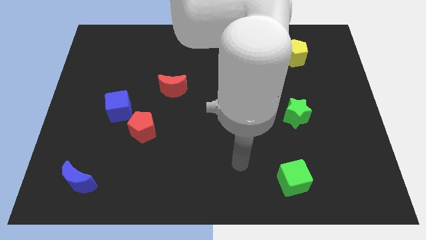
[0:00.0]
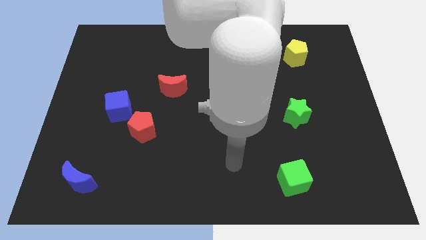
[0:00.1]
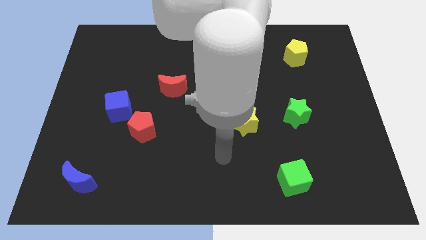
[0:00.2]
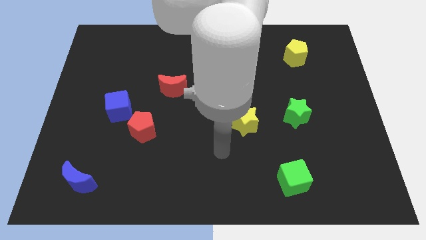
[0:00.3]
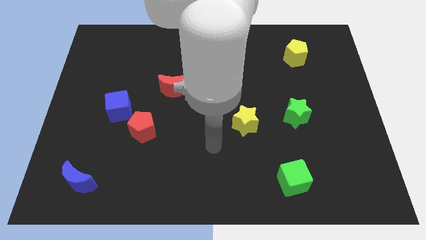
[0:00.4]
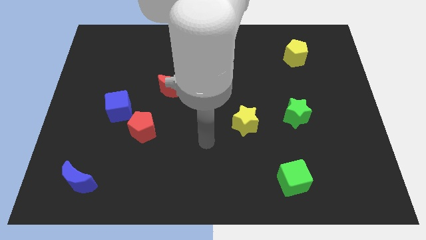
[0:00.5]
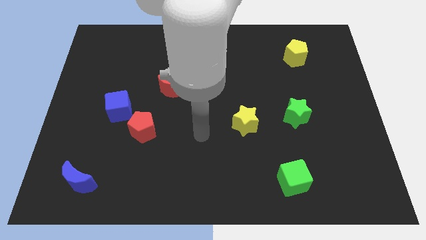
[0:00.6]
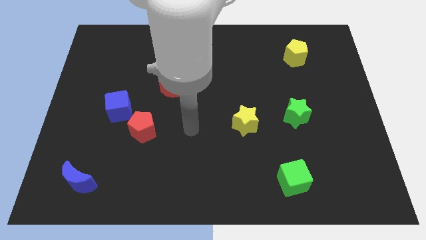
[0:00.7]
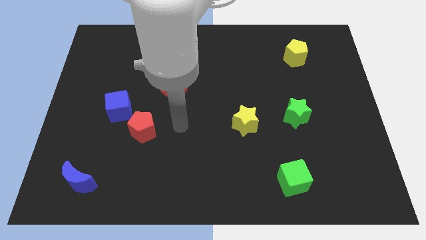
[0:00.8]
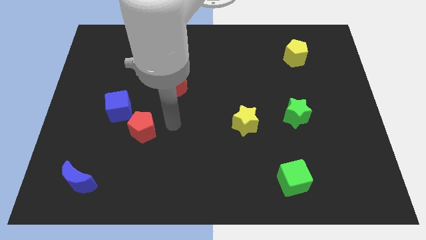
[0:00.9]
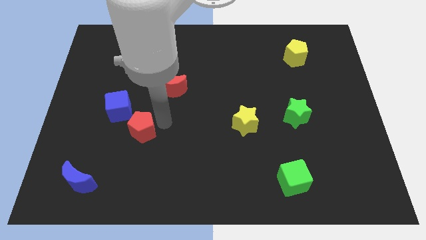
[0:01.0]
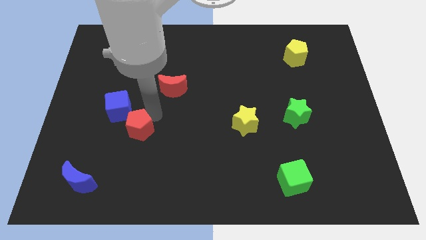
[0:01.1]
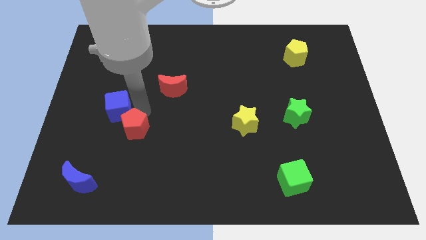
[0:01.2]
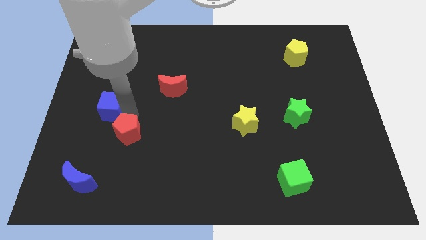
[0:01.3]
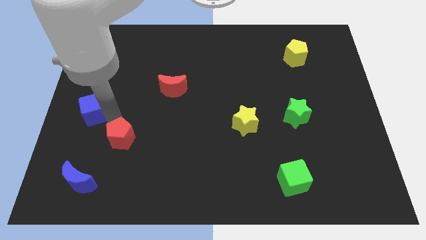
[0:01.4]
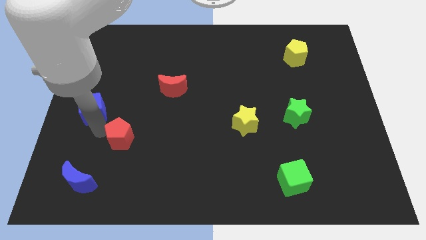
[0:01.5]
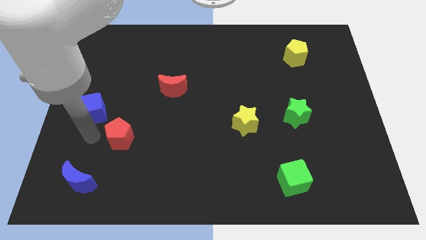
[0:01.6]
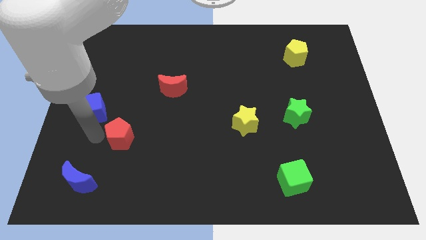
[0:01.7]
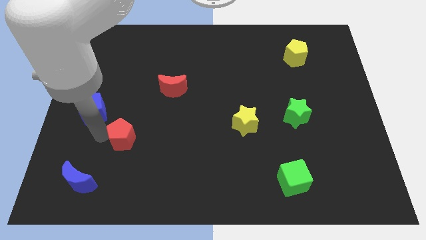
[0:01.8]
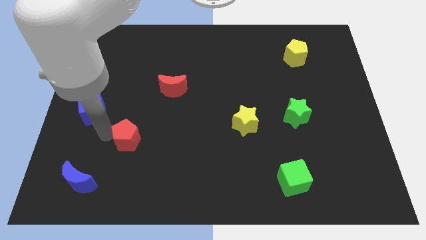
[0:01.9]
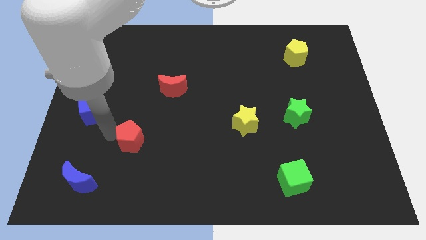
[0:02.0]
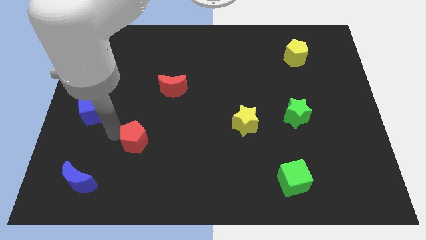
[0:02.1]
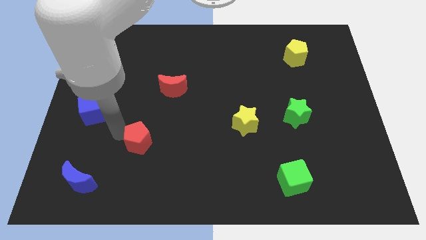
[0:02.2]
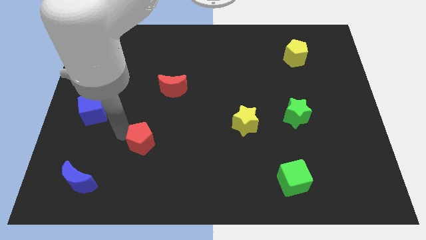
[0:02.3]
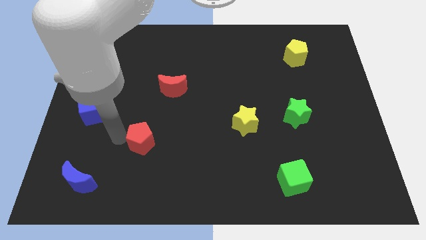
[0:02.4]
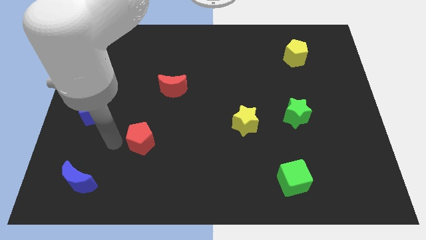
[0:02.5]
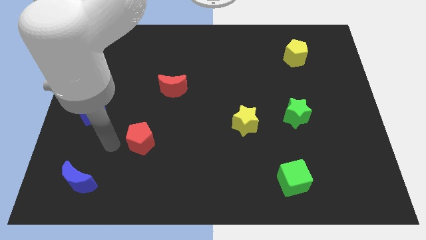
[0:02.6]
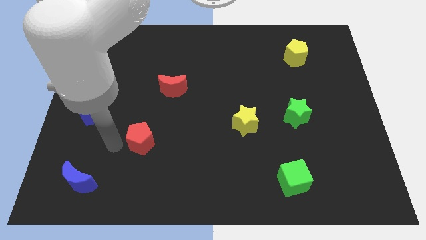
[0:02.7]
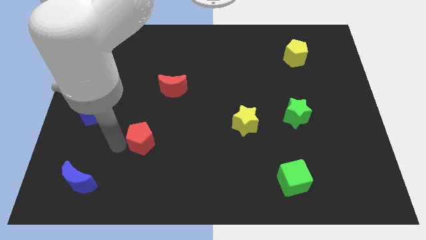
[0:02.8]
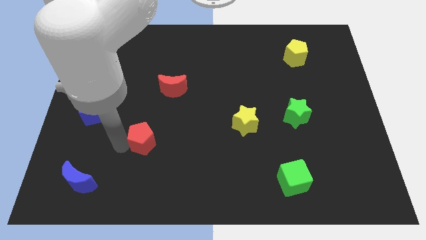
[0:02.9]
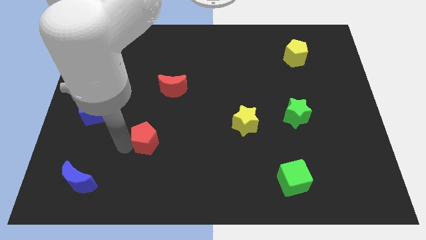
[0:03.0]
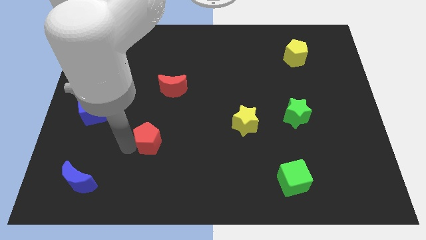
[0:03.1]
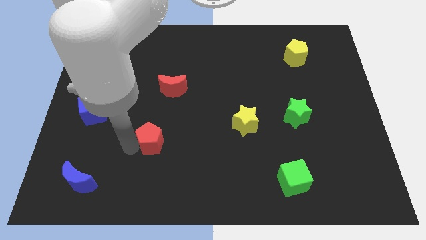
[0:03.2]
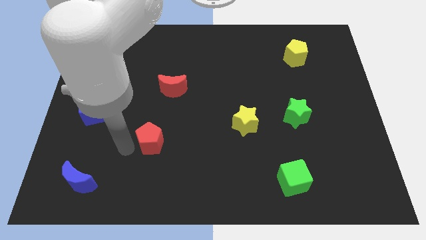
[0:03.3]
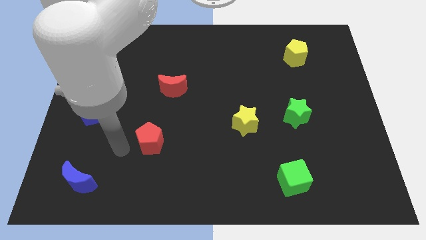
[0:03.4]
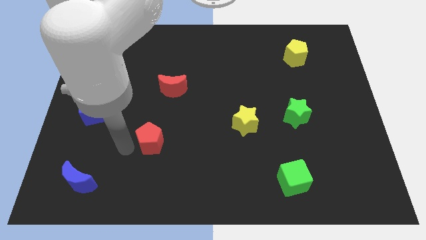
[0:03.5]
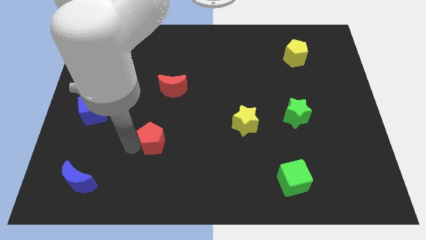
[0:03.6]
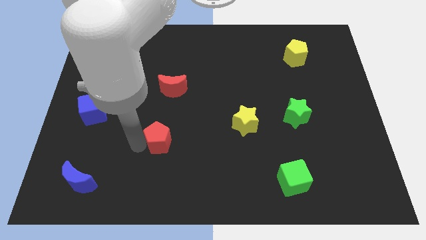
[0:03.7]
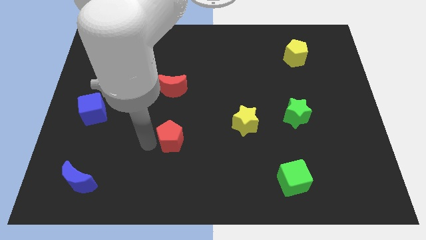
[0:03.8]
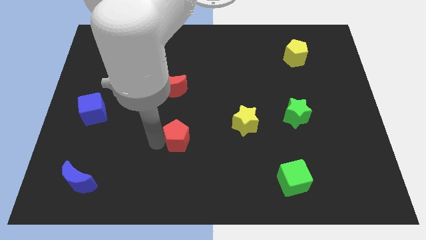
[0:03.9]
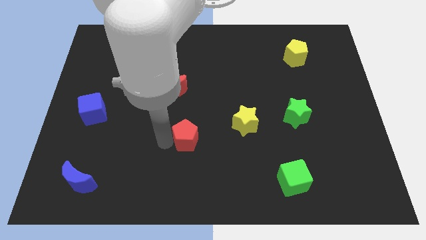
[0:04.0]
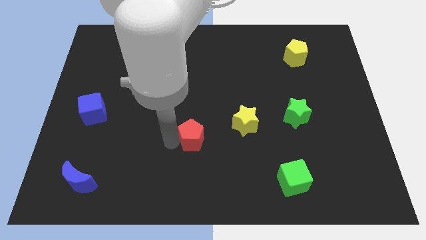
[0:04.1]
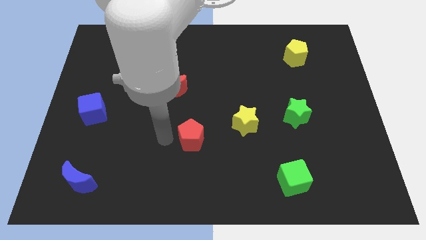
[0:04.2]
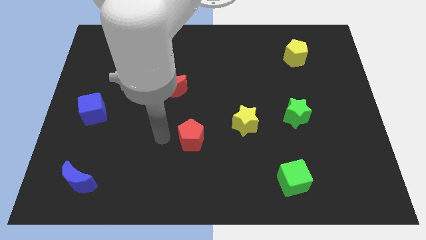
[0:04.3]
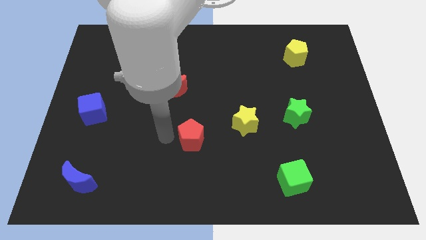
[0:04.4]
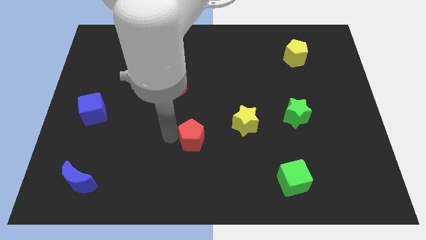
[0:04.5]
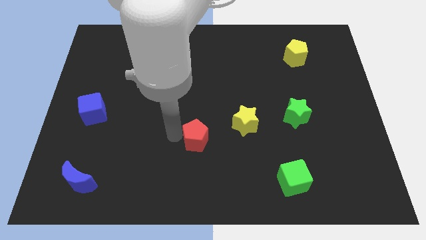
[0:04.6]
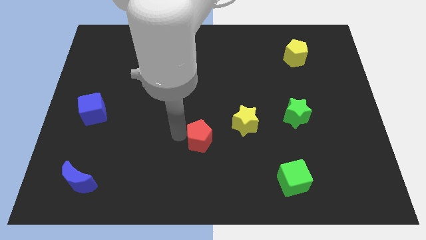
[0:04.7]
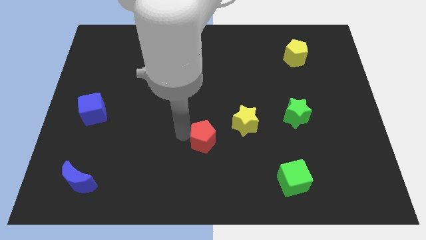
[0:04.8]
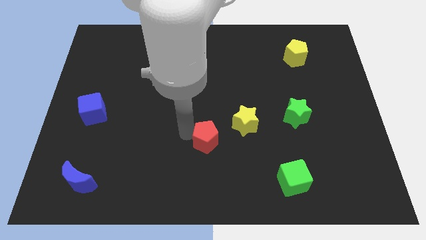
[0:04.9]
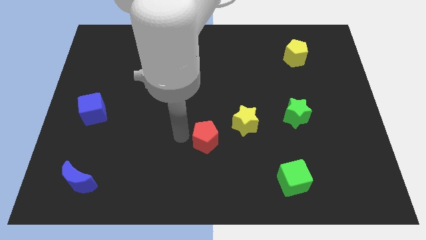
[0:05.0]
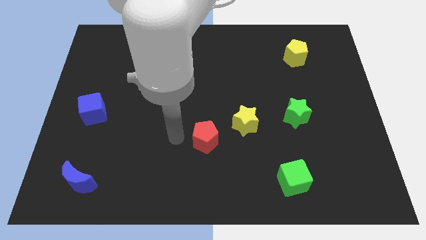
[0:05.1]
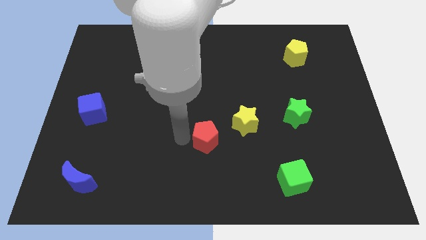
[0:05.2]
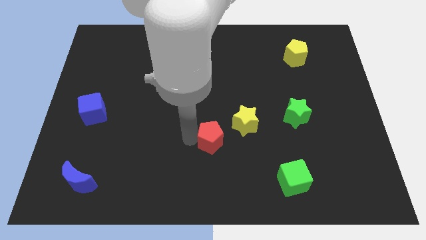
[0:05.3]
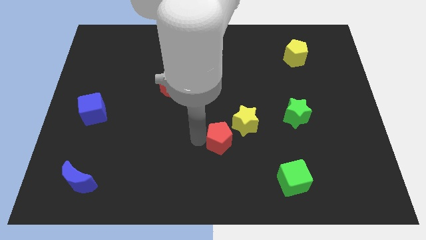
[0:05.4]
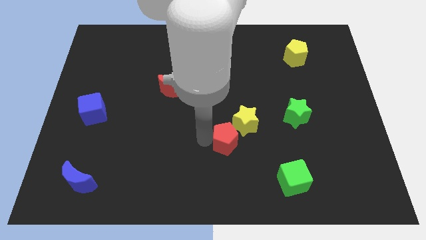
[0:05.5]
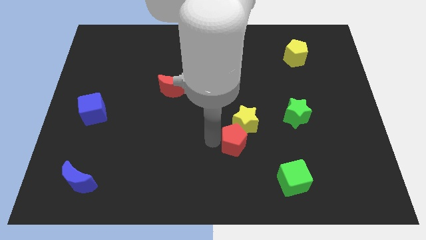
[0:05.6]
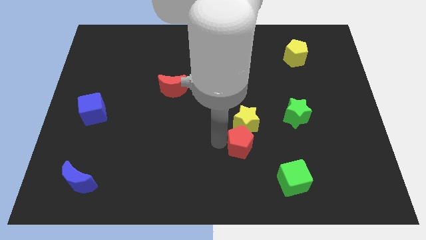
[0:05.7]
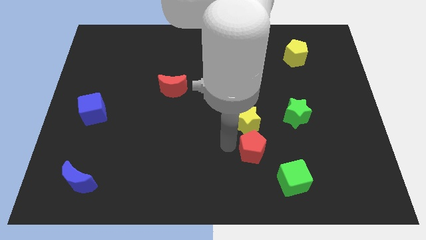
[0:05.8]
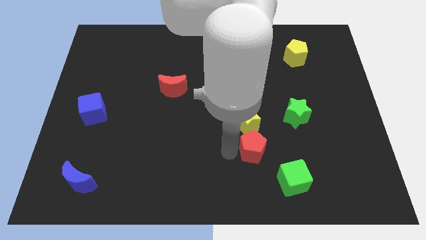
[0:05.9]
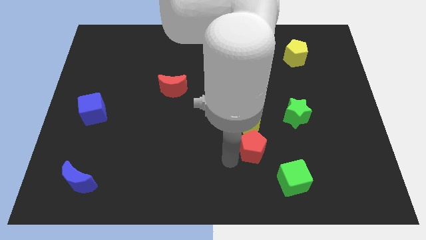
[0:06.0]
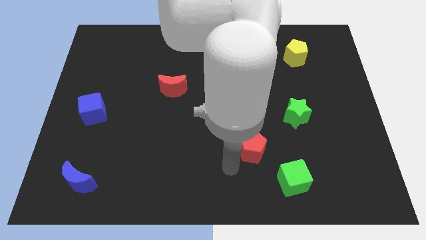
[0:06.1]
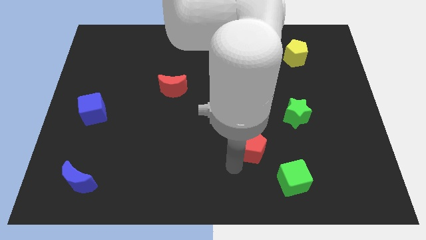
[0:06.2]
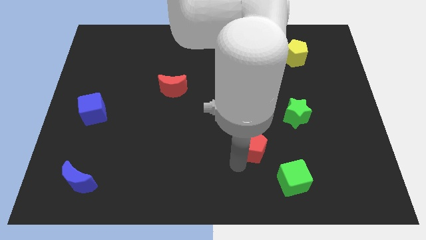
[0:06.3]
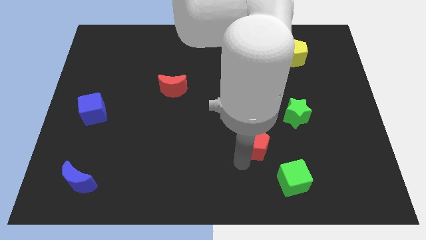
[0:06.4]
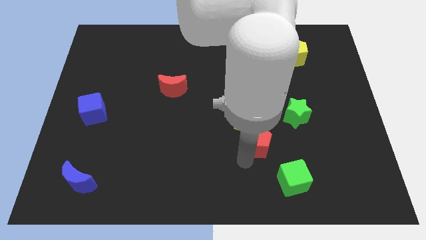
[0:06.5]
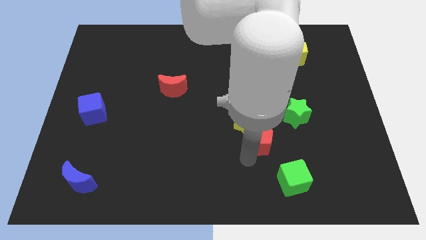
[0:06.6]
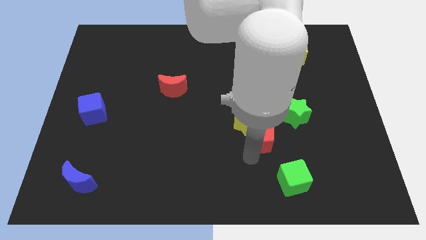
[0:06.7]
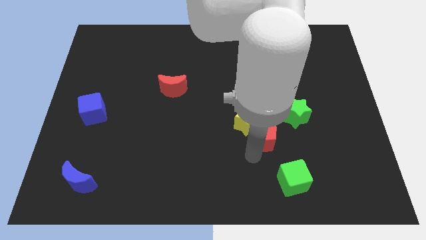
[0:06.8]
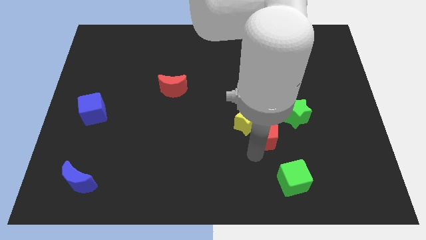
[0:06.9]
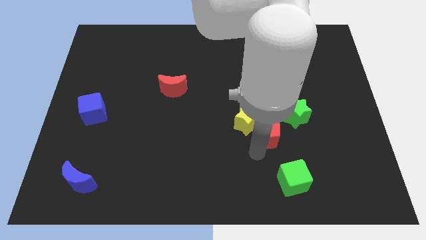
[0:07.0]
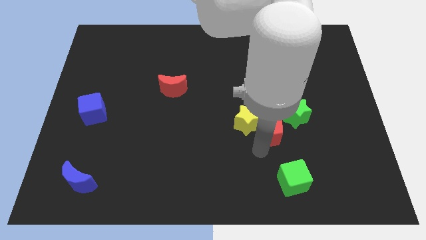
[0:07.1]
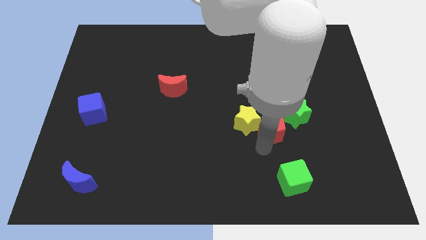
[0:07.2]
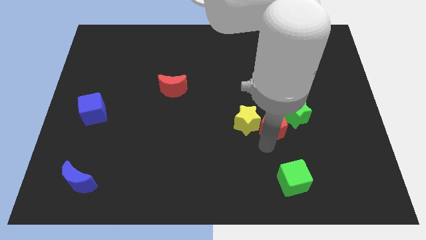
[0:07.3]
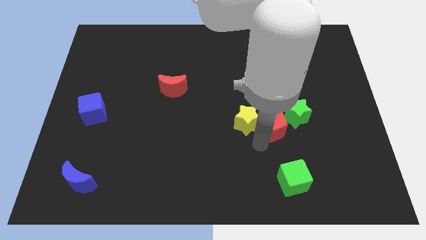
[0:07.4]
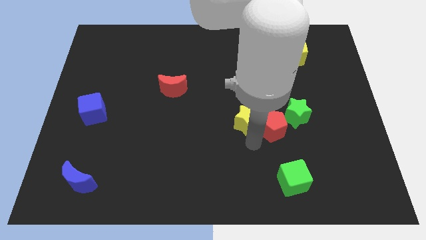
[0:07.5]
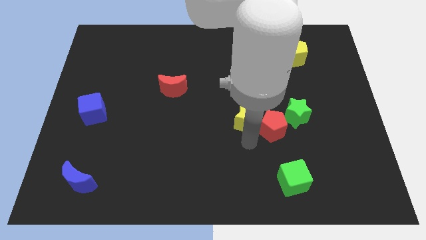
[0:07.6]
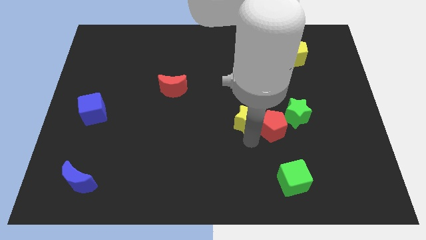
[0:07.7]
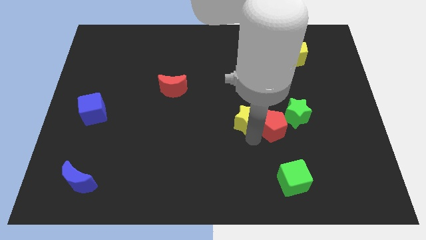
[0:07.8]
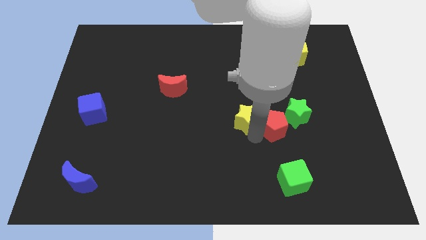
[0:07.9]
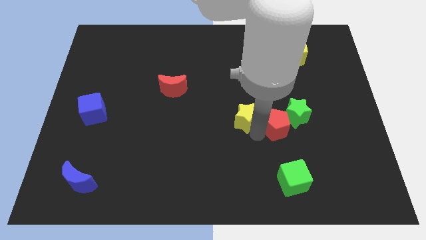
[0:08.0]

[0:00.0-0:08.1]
put the red pentagon to the green star
